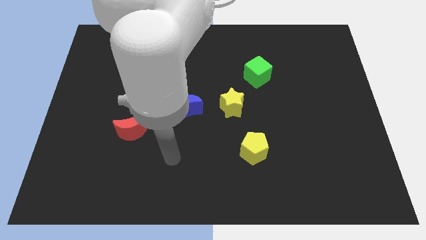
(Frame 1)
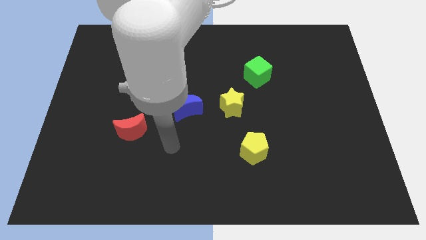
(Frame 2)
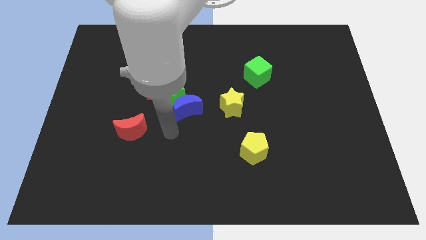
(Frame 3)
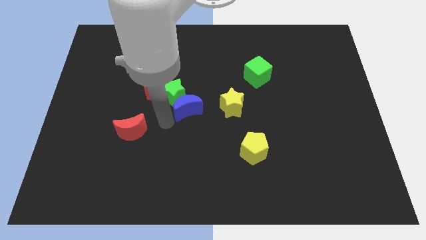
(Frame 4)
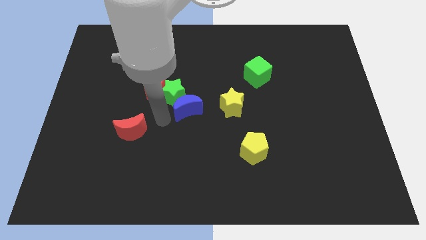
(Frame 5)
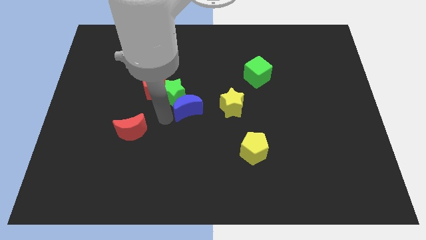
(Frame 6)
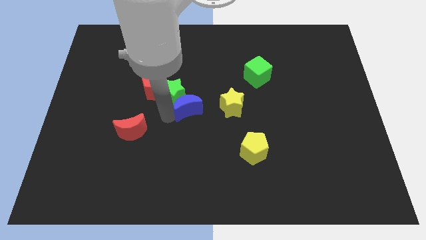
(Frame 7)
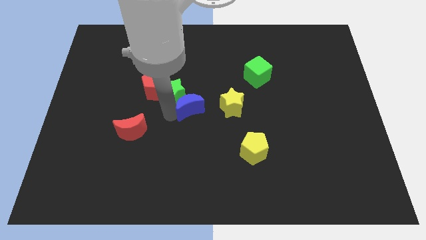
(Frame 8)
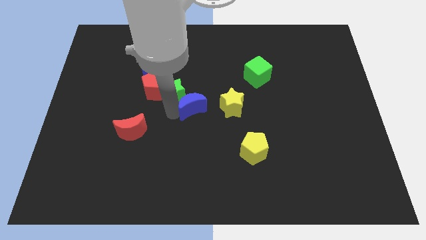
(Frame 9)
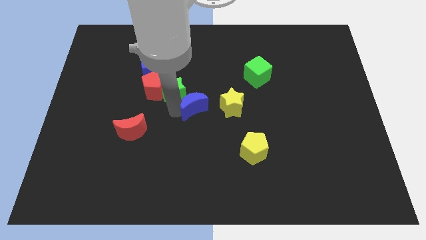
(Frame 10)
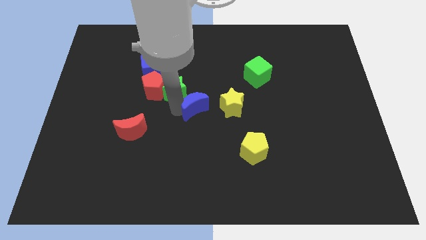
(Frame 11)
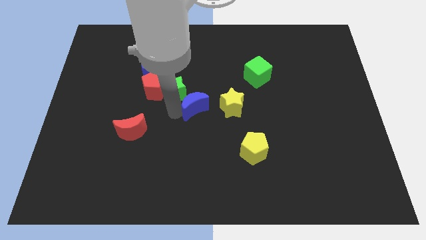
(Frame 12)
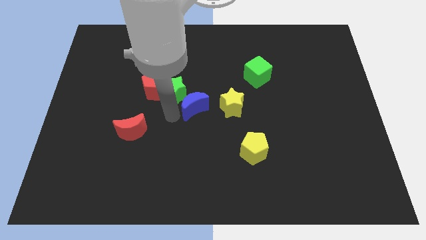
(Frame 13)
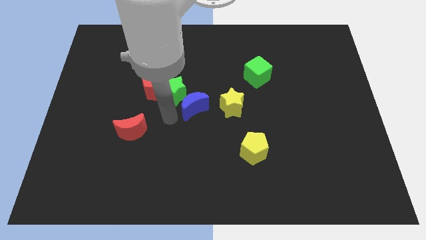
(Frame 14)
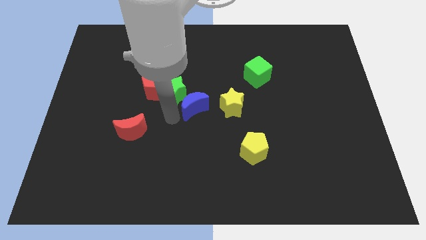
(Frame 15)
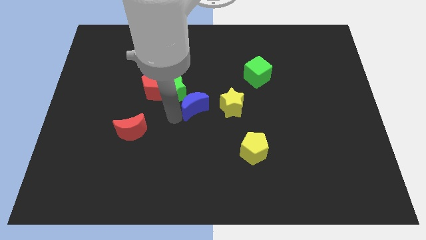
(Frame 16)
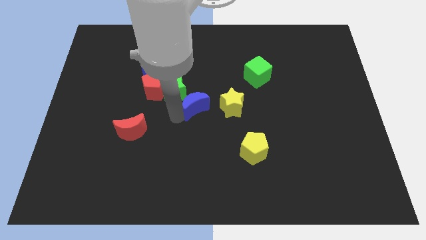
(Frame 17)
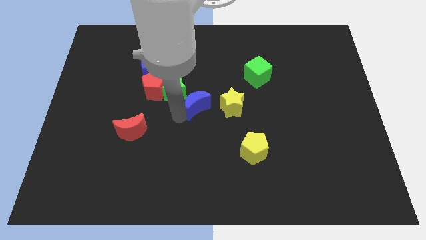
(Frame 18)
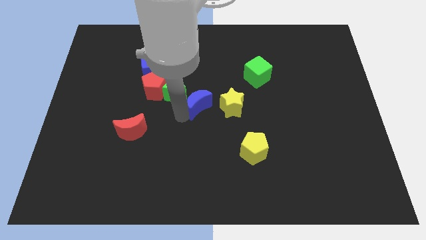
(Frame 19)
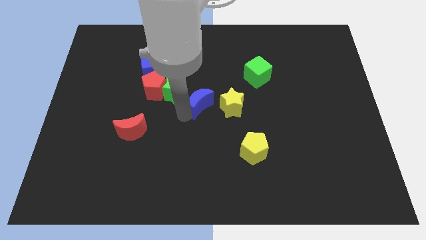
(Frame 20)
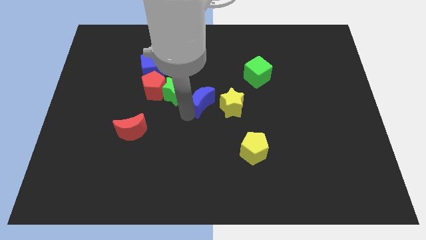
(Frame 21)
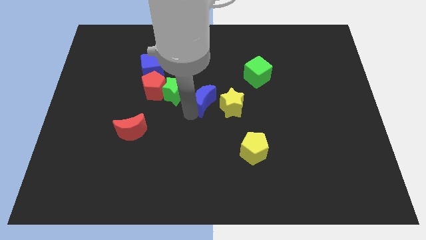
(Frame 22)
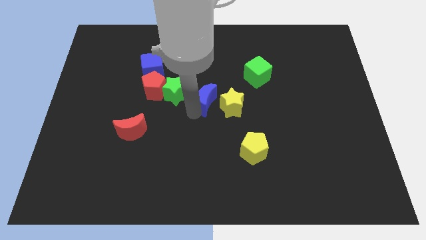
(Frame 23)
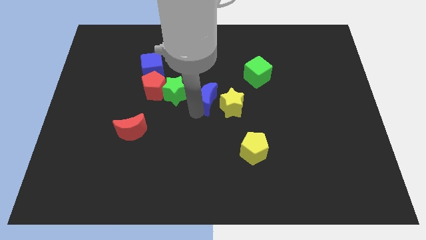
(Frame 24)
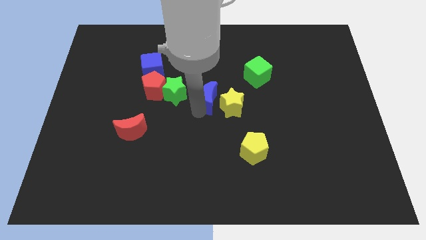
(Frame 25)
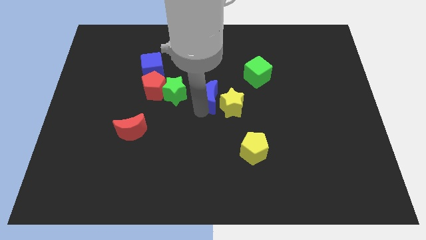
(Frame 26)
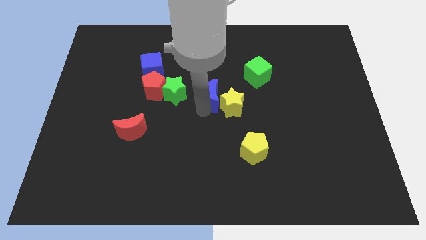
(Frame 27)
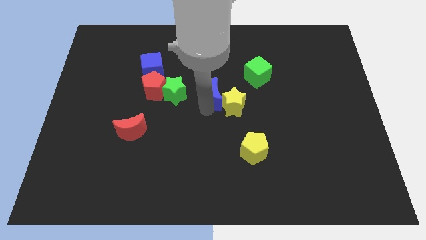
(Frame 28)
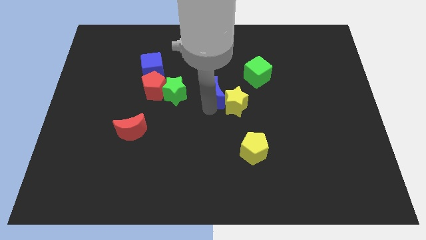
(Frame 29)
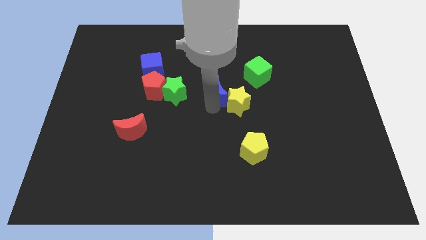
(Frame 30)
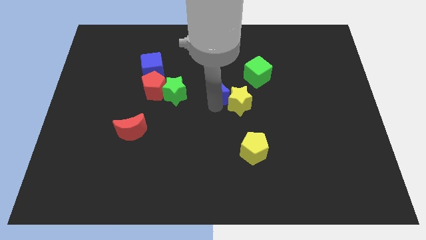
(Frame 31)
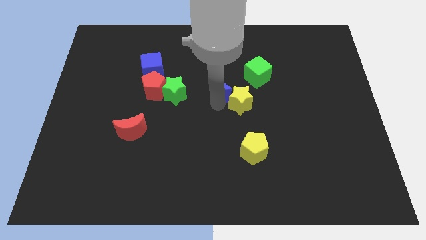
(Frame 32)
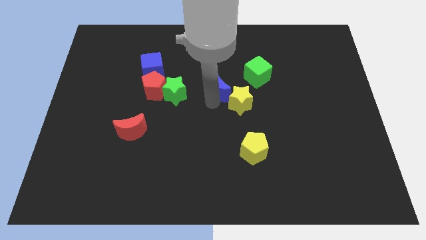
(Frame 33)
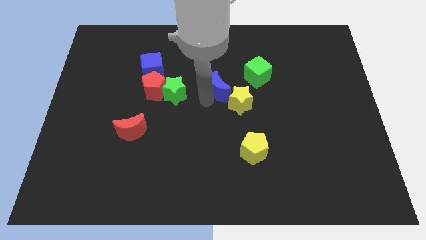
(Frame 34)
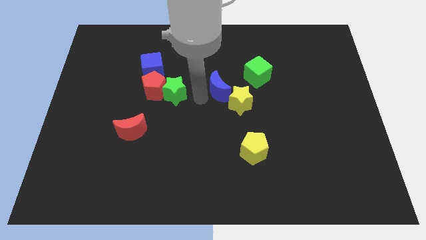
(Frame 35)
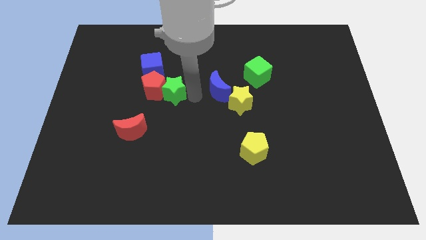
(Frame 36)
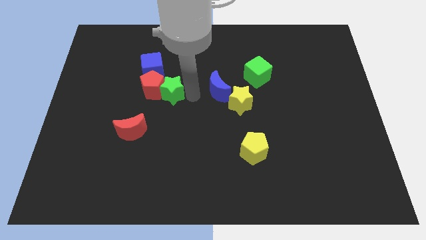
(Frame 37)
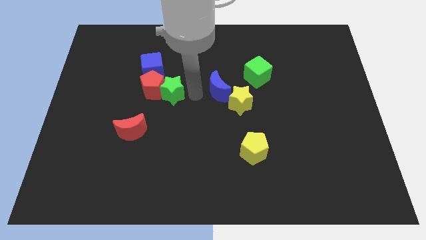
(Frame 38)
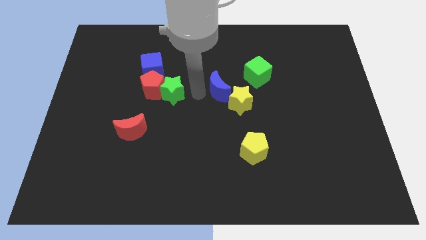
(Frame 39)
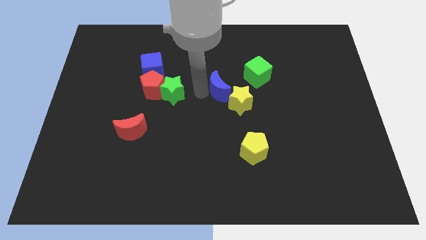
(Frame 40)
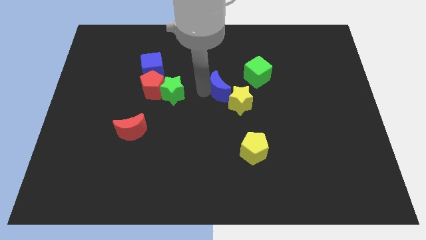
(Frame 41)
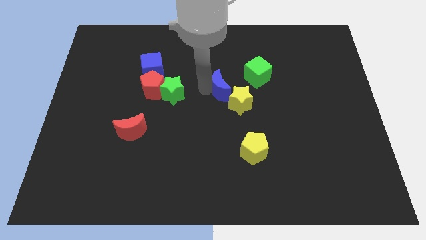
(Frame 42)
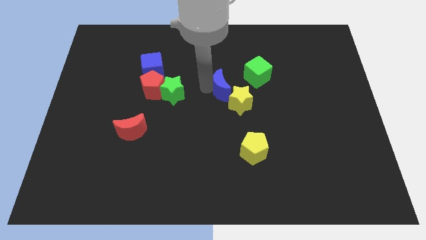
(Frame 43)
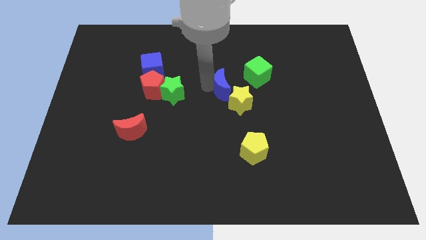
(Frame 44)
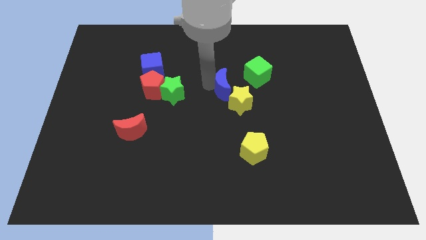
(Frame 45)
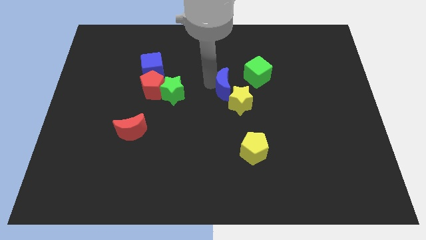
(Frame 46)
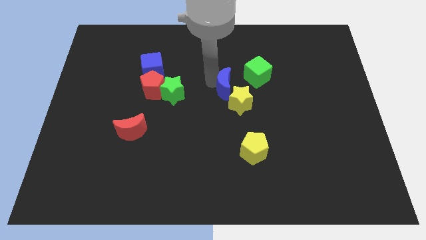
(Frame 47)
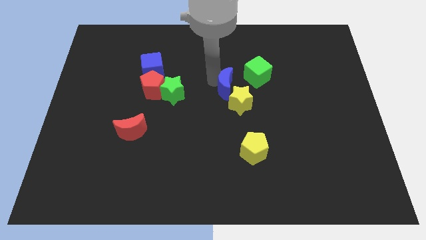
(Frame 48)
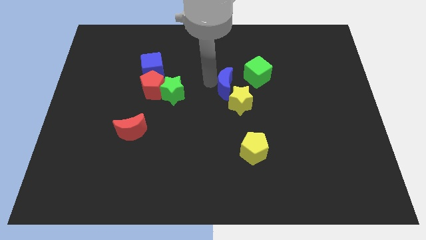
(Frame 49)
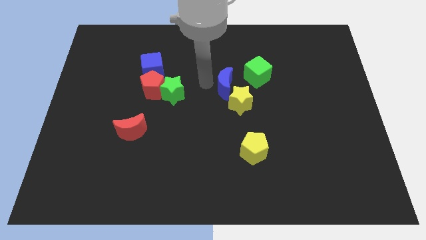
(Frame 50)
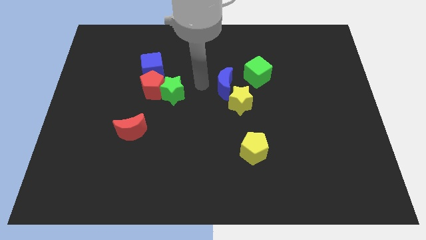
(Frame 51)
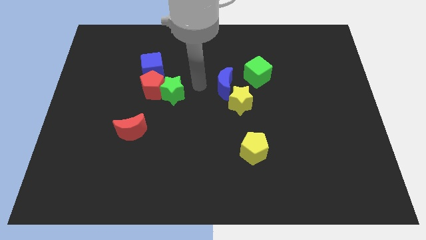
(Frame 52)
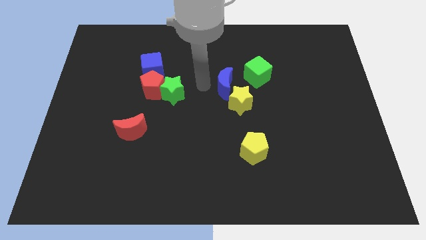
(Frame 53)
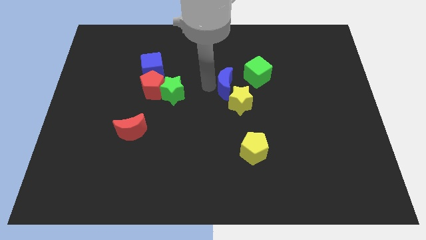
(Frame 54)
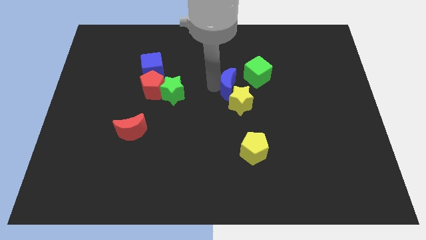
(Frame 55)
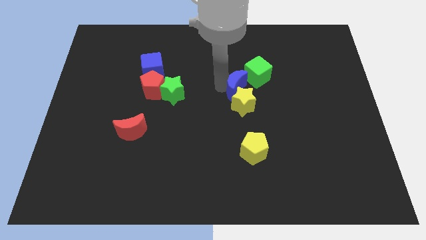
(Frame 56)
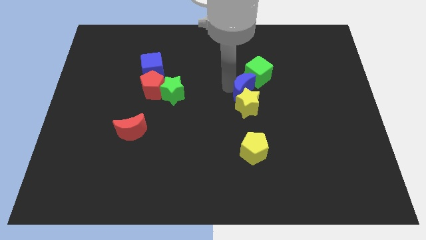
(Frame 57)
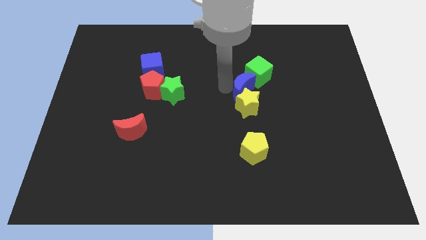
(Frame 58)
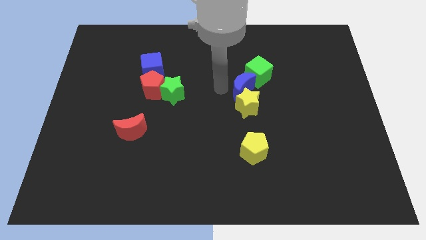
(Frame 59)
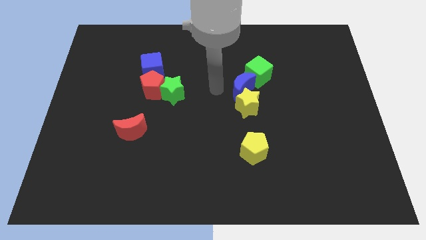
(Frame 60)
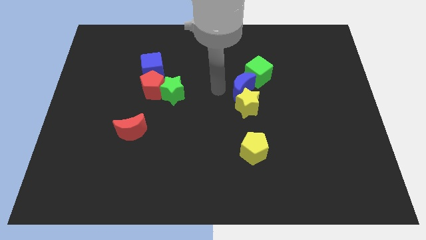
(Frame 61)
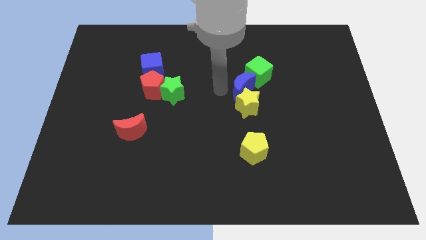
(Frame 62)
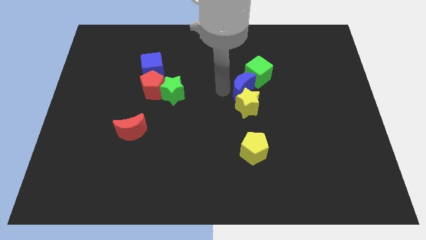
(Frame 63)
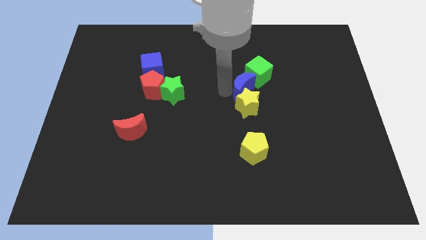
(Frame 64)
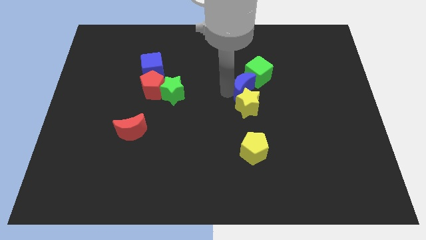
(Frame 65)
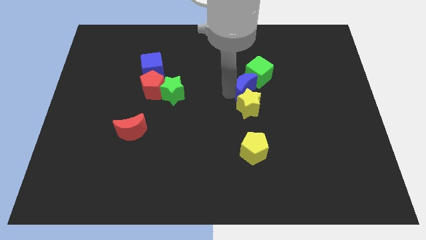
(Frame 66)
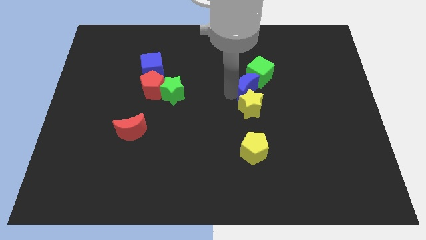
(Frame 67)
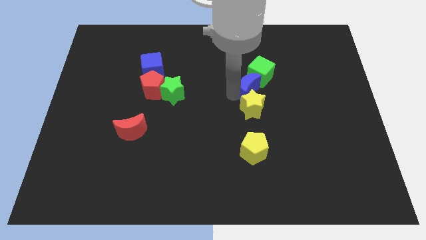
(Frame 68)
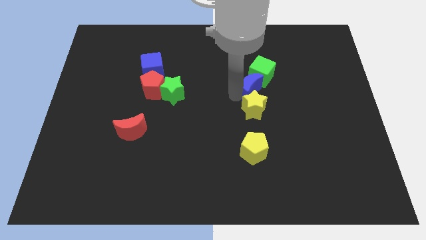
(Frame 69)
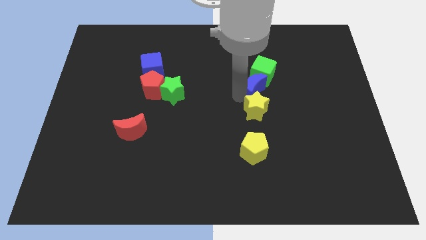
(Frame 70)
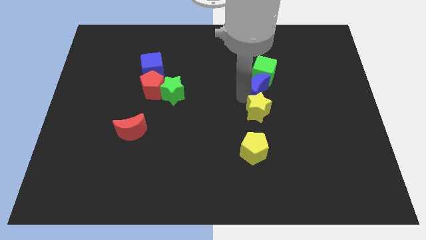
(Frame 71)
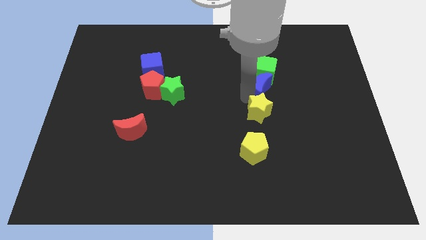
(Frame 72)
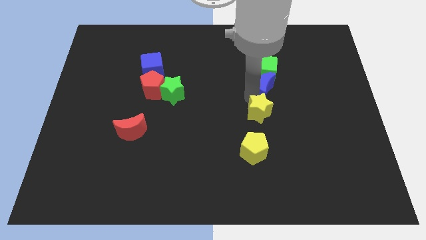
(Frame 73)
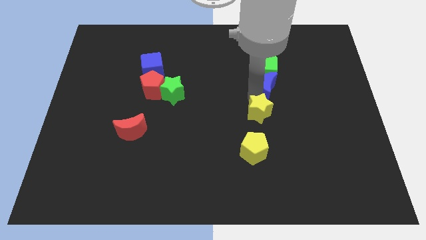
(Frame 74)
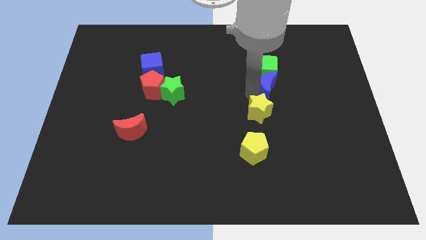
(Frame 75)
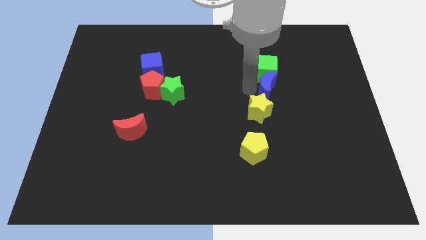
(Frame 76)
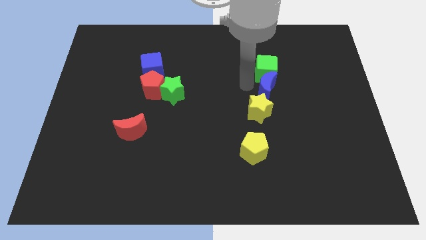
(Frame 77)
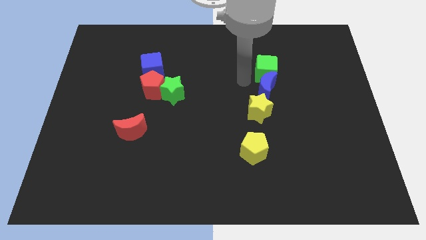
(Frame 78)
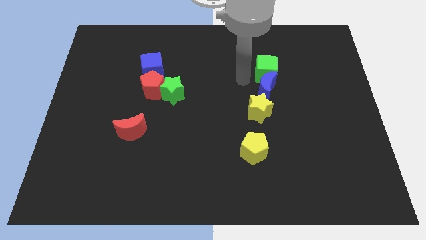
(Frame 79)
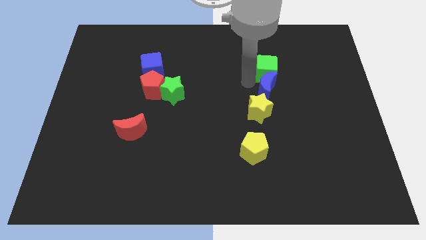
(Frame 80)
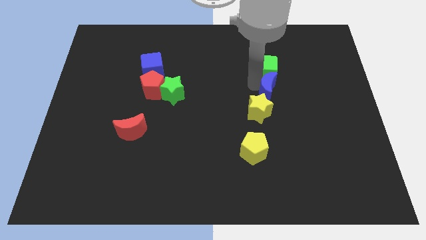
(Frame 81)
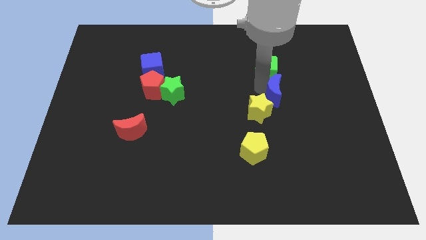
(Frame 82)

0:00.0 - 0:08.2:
push the blue moon right
